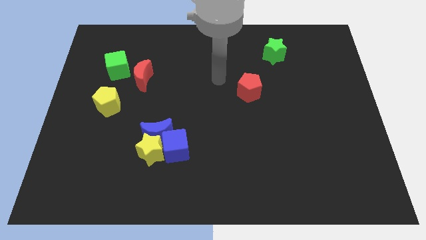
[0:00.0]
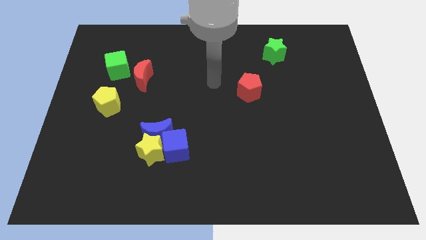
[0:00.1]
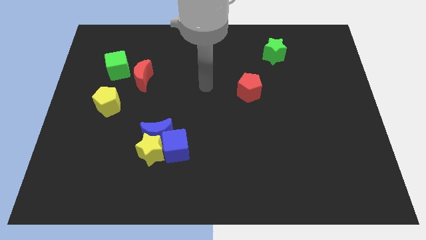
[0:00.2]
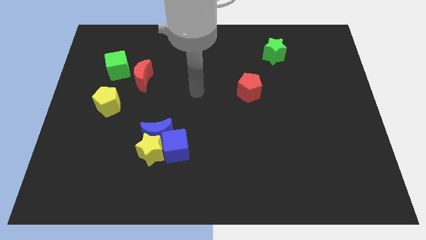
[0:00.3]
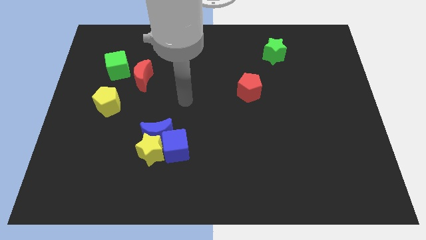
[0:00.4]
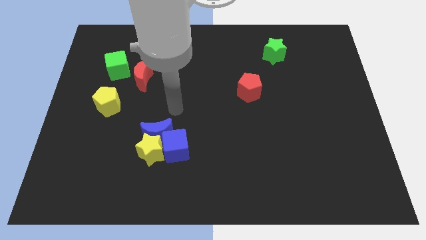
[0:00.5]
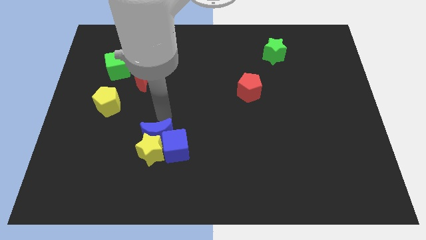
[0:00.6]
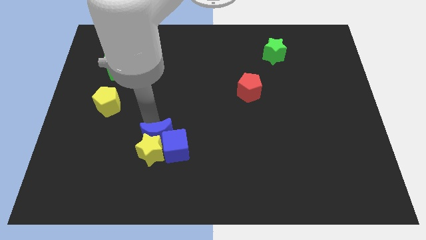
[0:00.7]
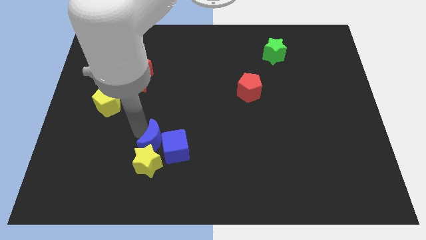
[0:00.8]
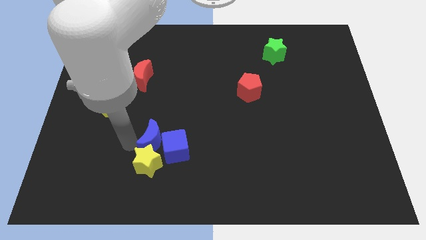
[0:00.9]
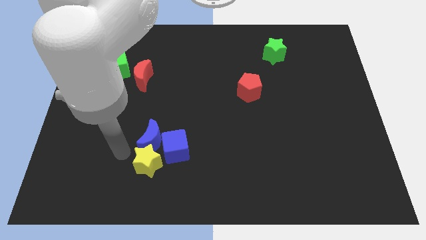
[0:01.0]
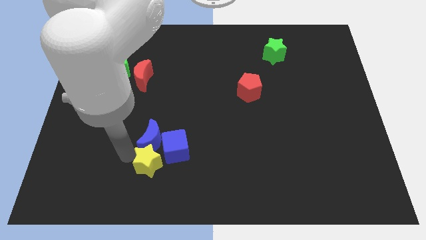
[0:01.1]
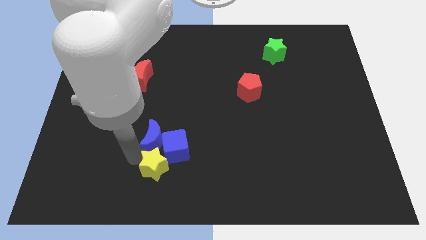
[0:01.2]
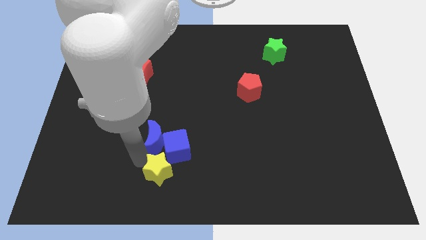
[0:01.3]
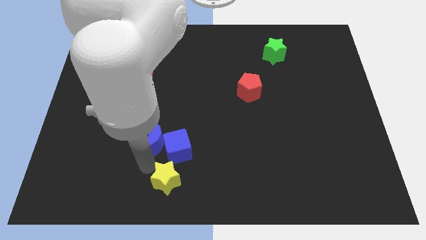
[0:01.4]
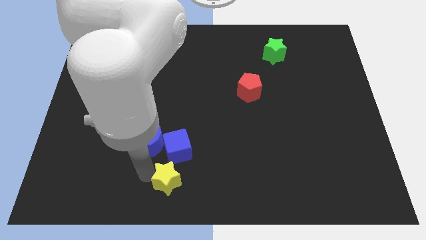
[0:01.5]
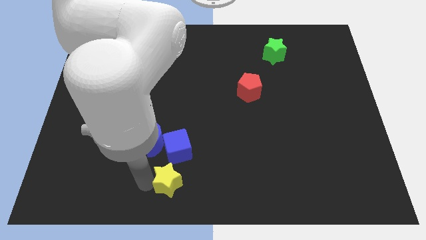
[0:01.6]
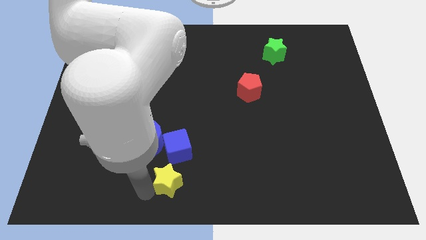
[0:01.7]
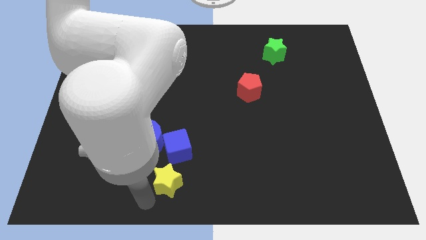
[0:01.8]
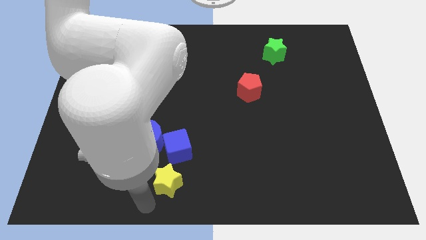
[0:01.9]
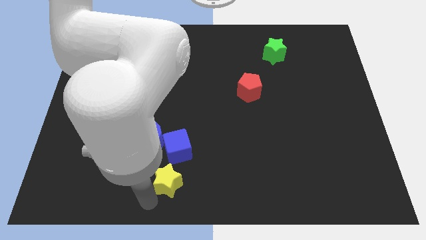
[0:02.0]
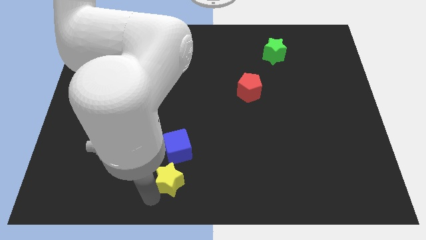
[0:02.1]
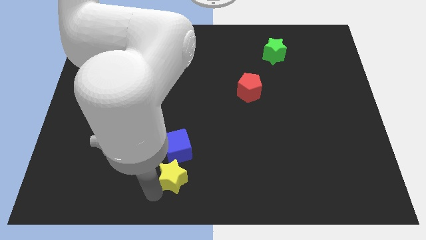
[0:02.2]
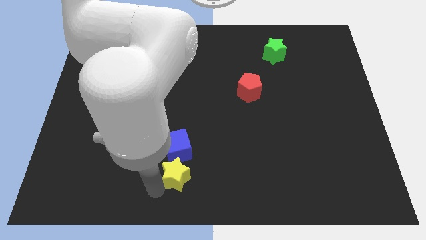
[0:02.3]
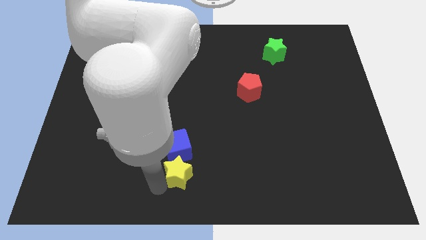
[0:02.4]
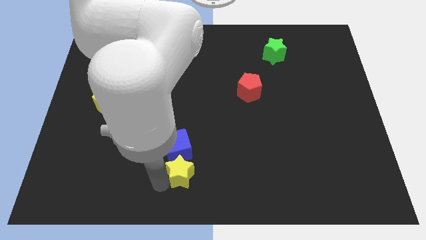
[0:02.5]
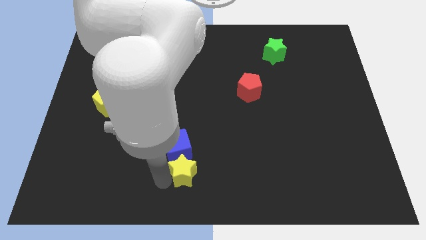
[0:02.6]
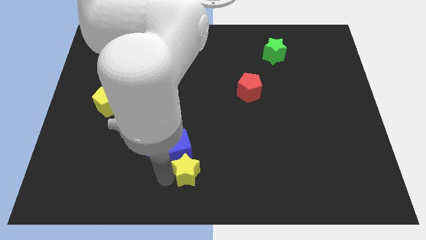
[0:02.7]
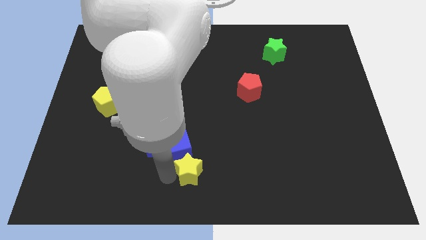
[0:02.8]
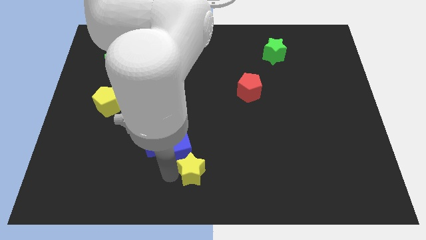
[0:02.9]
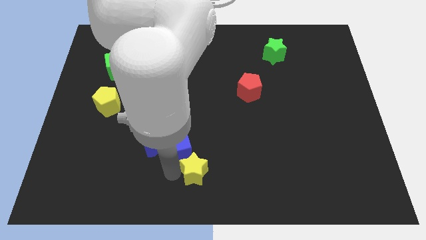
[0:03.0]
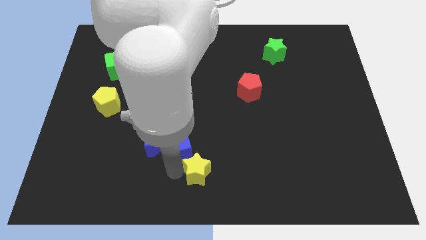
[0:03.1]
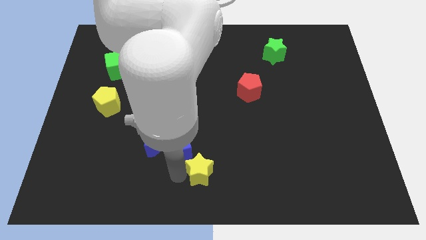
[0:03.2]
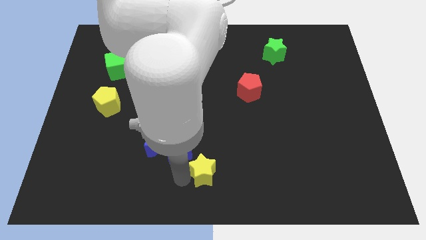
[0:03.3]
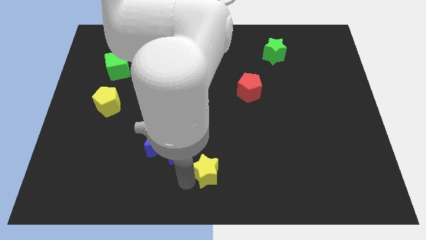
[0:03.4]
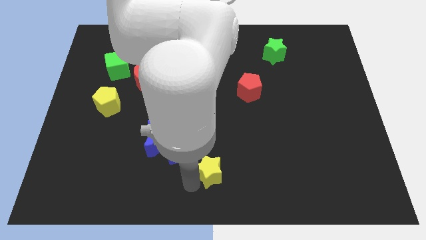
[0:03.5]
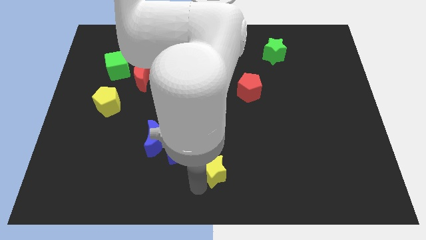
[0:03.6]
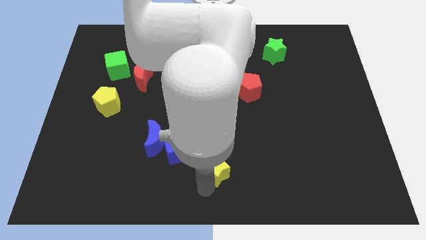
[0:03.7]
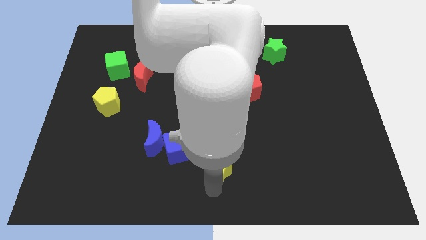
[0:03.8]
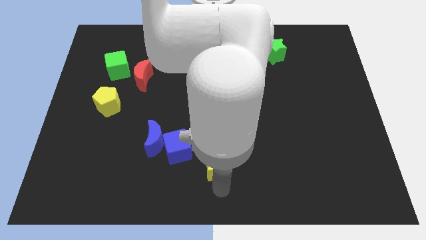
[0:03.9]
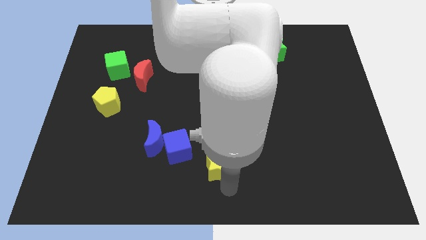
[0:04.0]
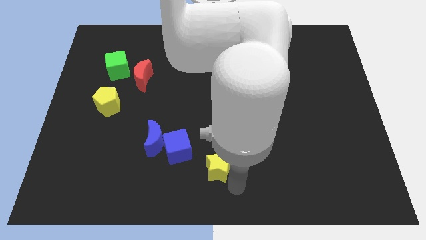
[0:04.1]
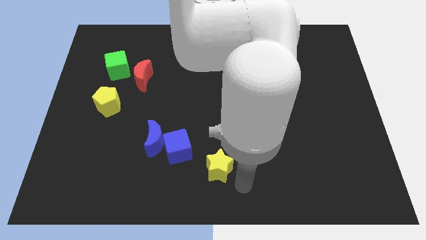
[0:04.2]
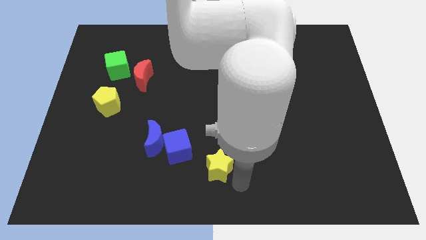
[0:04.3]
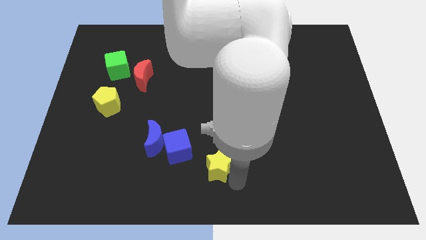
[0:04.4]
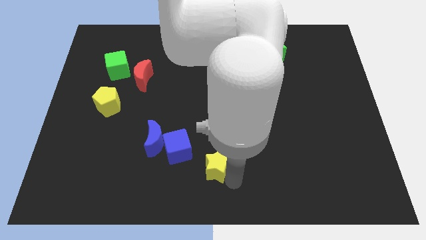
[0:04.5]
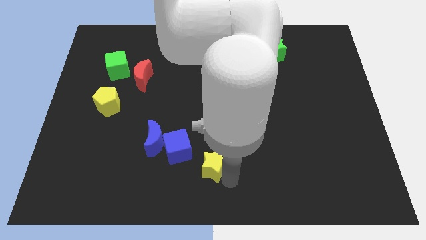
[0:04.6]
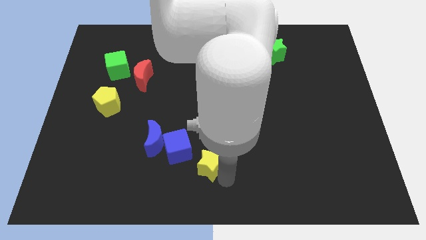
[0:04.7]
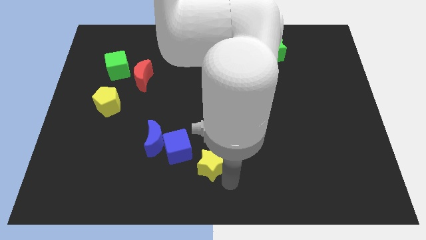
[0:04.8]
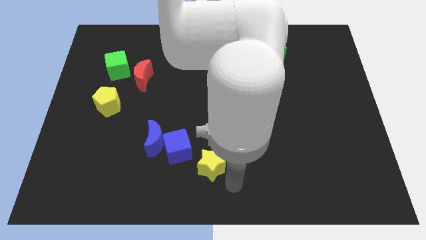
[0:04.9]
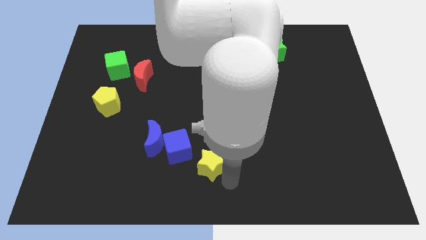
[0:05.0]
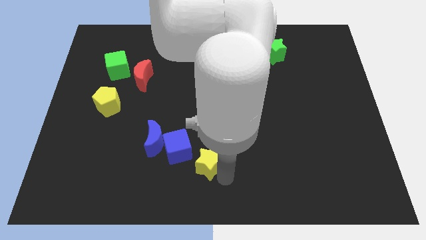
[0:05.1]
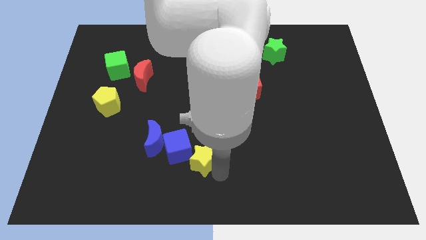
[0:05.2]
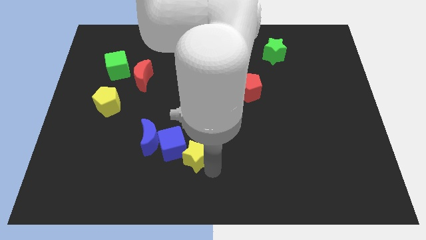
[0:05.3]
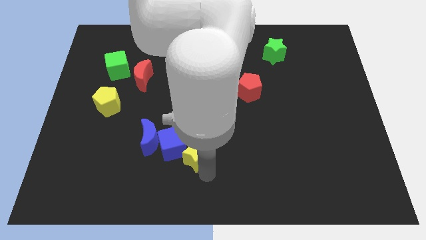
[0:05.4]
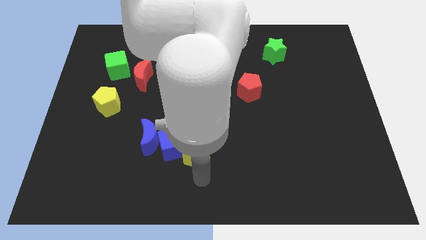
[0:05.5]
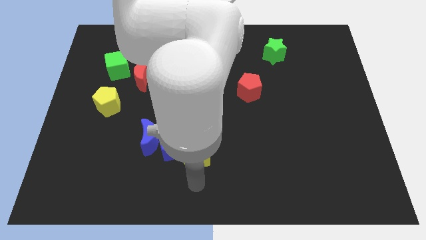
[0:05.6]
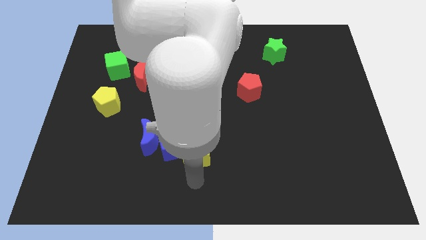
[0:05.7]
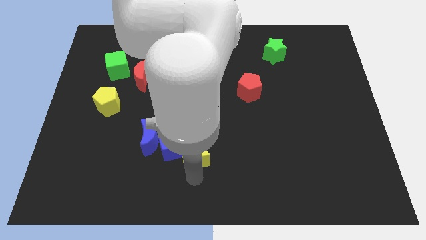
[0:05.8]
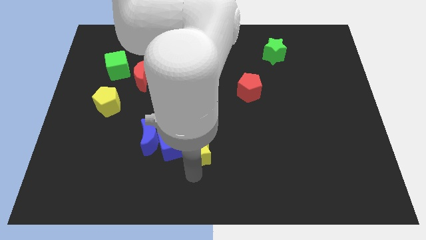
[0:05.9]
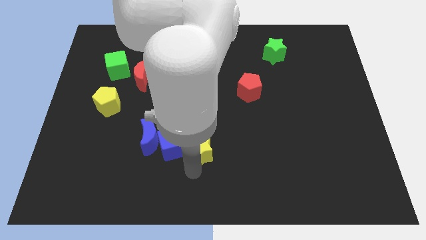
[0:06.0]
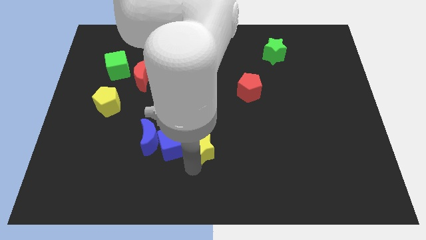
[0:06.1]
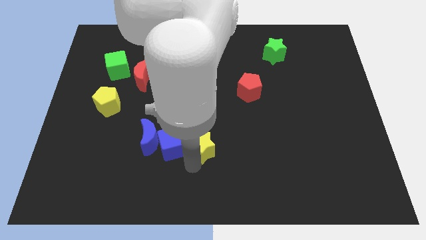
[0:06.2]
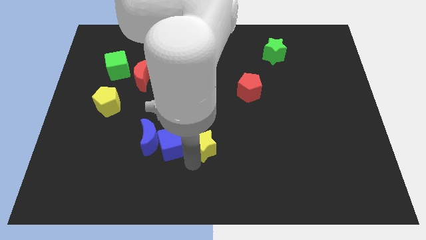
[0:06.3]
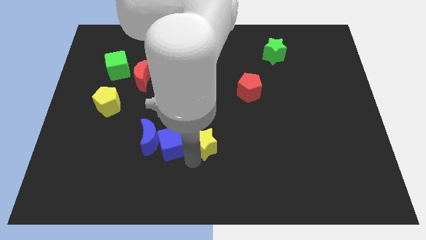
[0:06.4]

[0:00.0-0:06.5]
put the yellow star to the middle of the board
